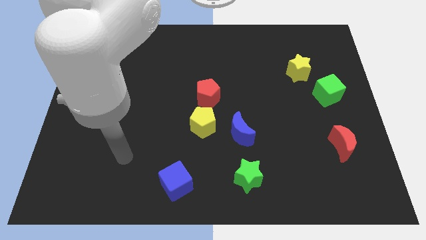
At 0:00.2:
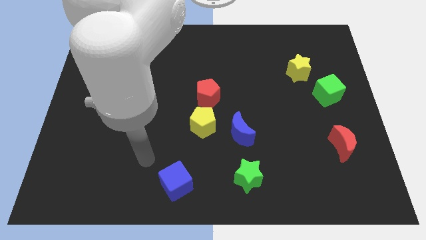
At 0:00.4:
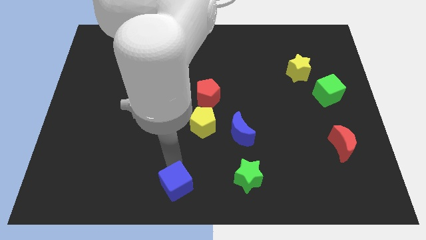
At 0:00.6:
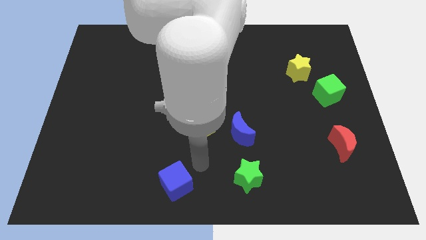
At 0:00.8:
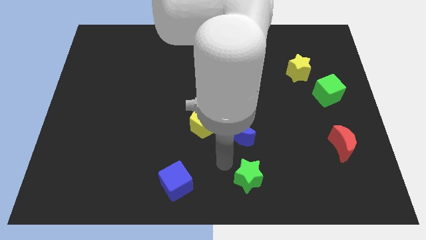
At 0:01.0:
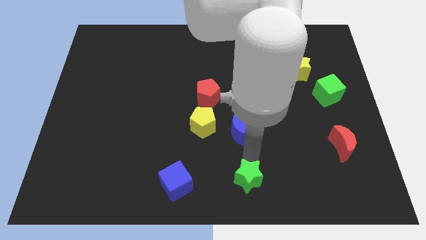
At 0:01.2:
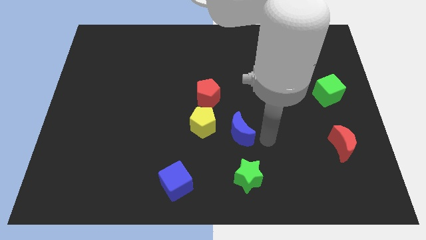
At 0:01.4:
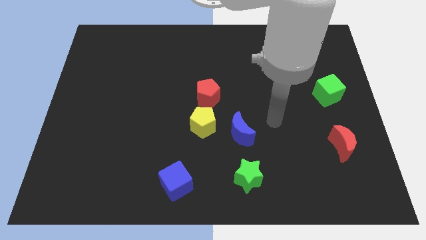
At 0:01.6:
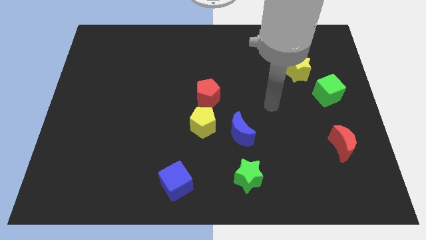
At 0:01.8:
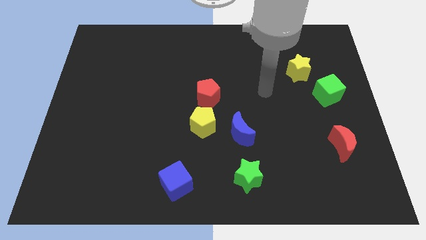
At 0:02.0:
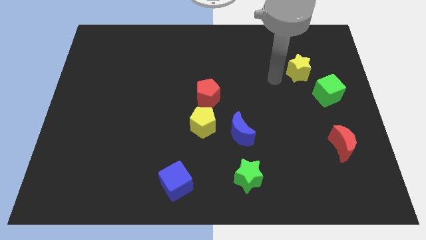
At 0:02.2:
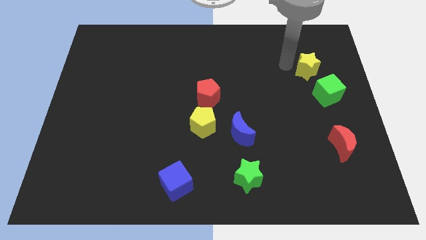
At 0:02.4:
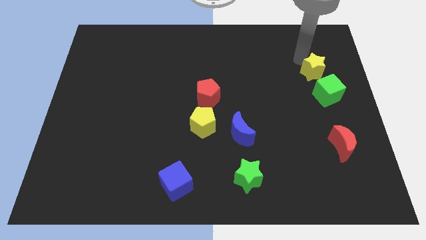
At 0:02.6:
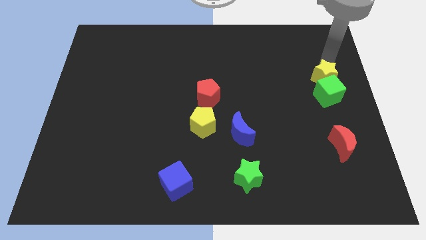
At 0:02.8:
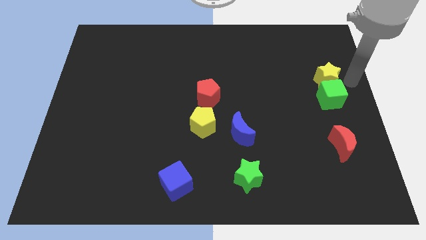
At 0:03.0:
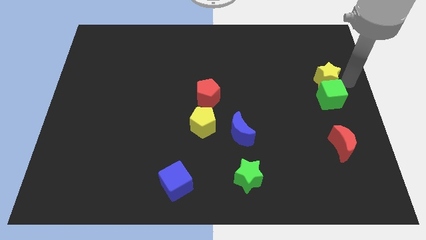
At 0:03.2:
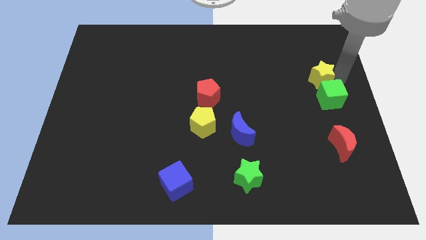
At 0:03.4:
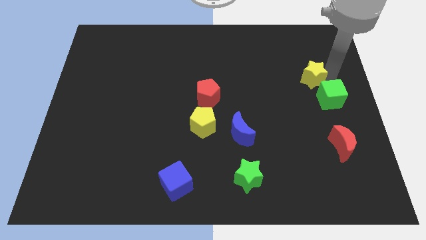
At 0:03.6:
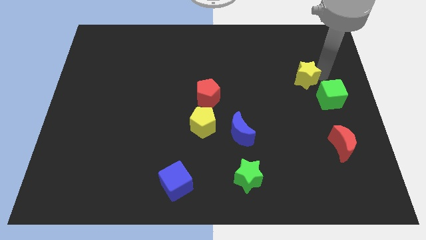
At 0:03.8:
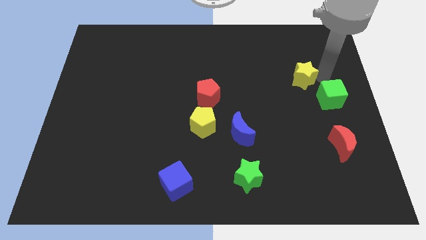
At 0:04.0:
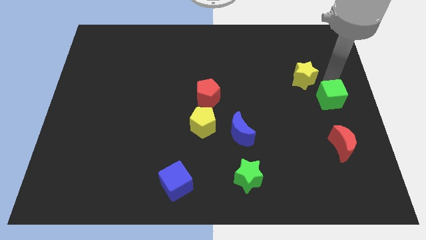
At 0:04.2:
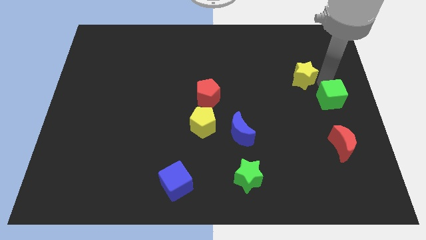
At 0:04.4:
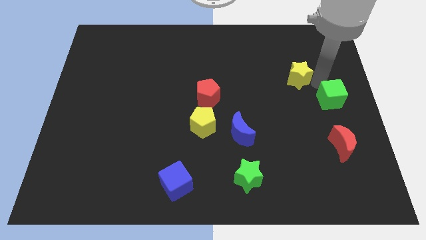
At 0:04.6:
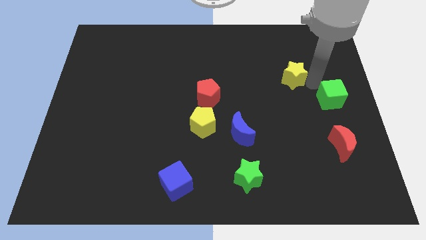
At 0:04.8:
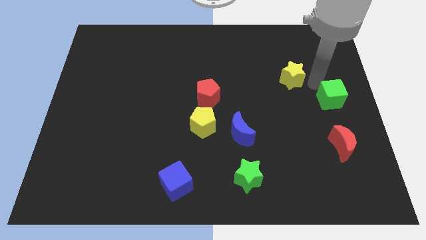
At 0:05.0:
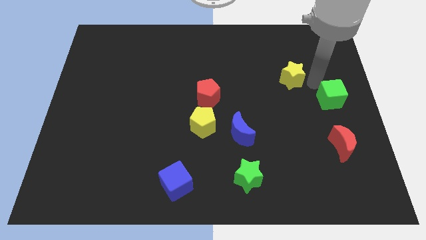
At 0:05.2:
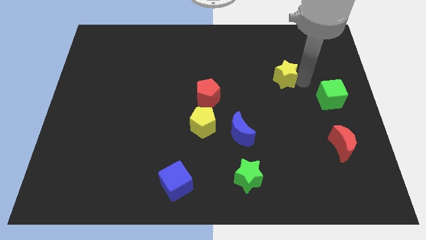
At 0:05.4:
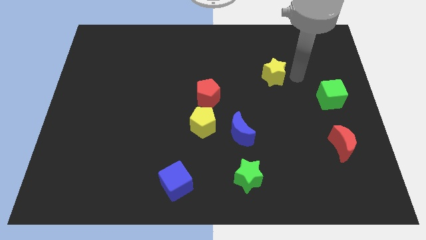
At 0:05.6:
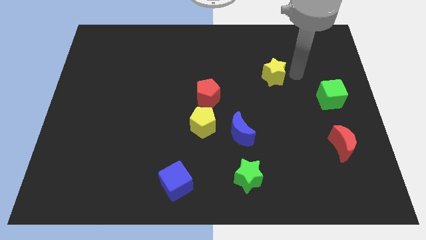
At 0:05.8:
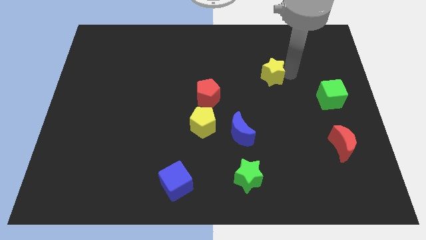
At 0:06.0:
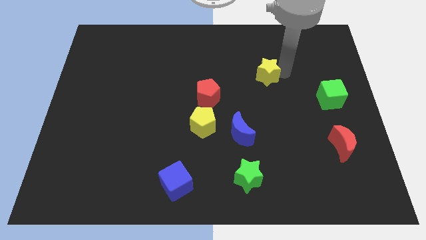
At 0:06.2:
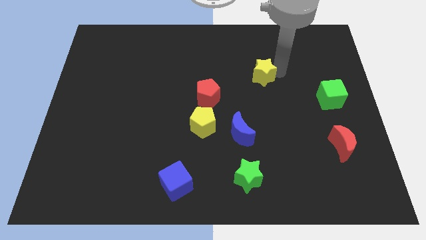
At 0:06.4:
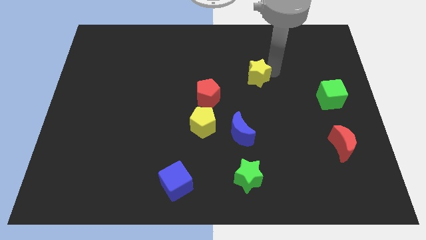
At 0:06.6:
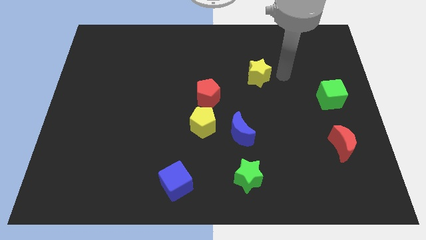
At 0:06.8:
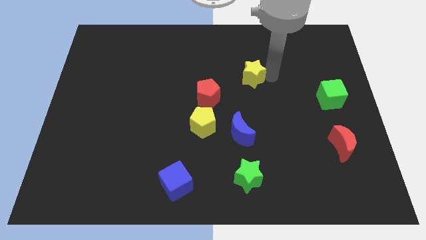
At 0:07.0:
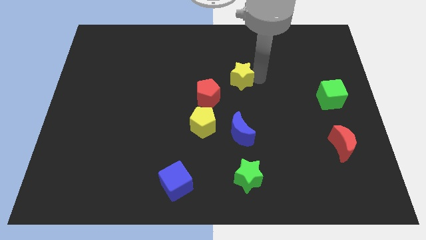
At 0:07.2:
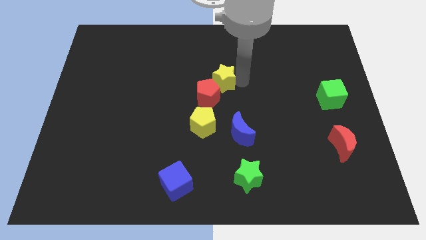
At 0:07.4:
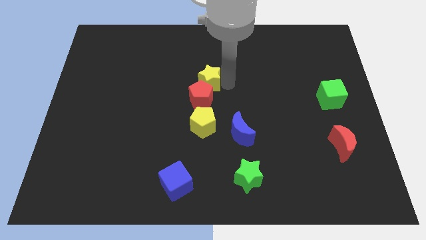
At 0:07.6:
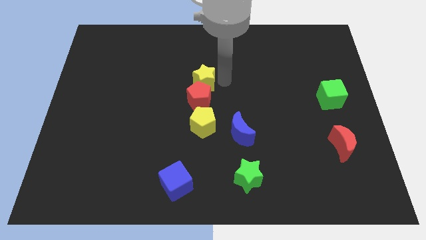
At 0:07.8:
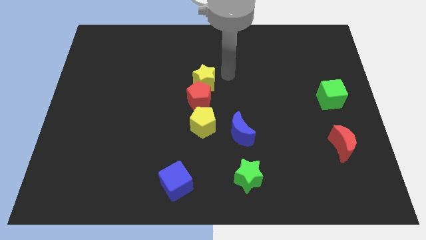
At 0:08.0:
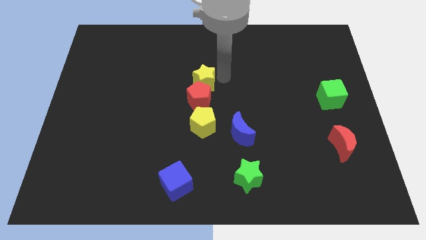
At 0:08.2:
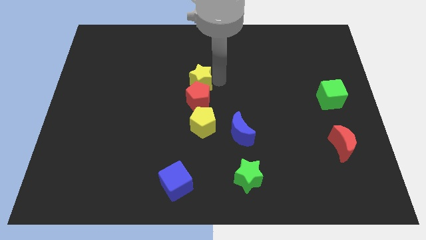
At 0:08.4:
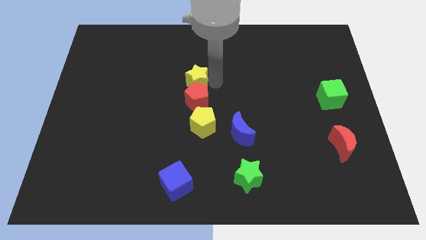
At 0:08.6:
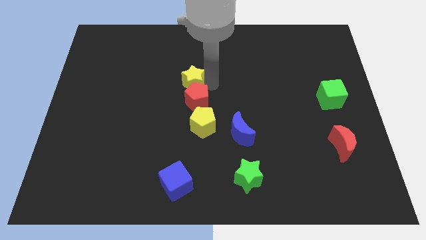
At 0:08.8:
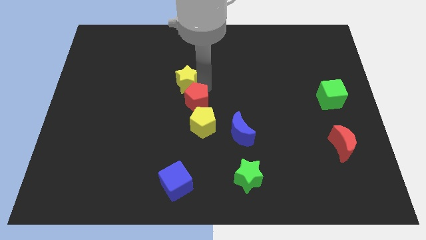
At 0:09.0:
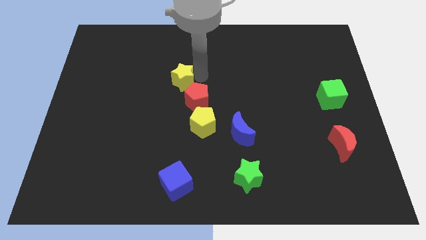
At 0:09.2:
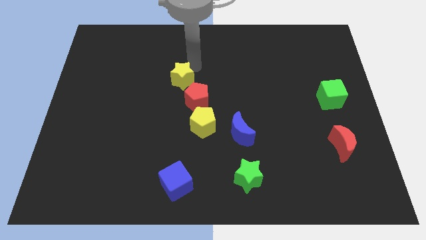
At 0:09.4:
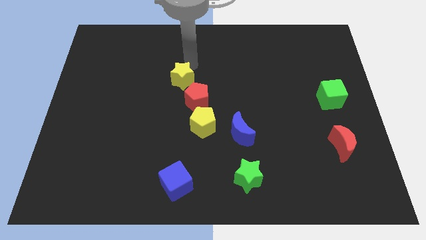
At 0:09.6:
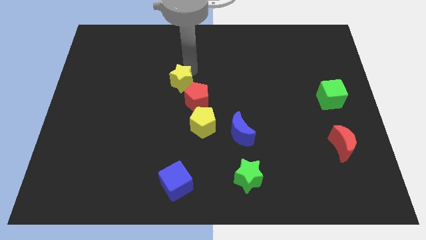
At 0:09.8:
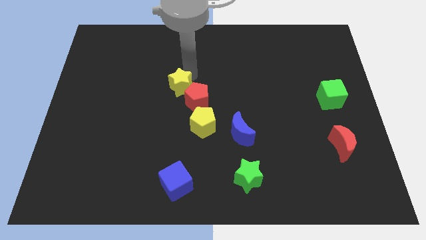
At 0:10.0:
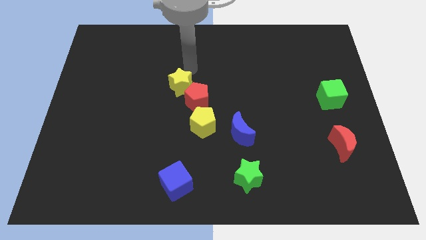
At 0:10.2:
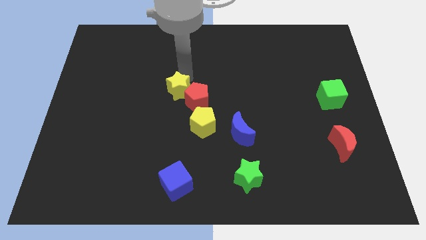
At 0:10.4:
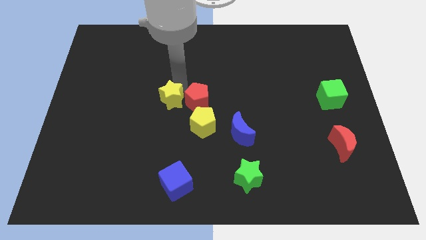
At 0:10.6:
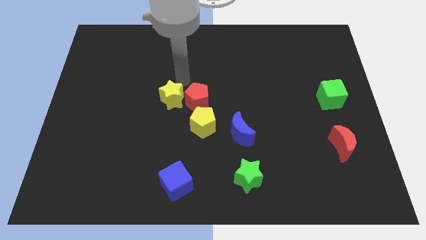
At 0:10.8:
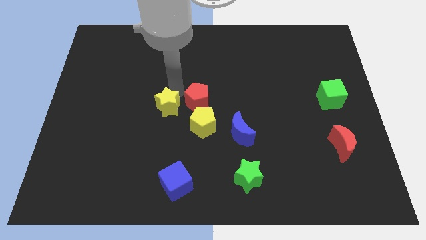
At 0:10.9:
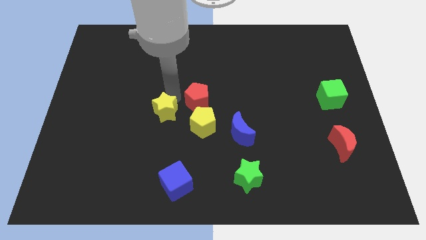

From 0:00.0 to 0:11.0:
push the yellow star just left of the yellow pentagon

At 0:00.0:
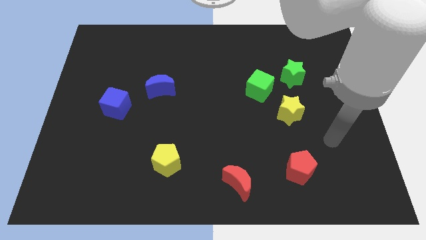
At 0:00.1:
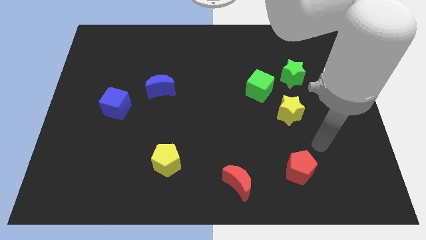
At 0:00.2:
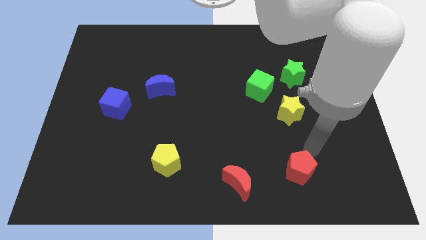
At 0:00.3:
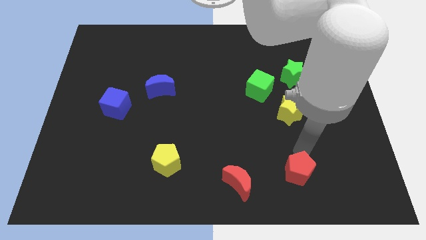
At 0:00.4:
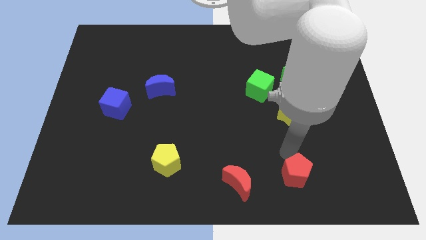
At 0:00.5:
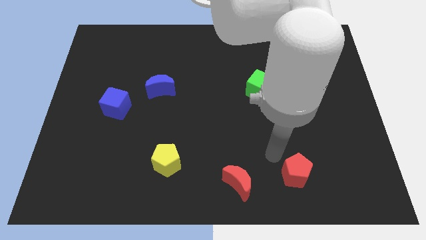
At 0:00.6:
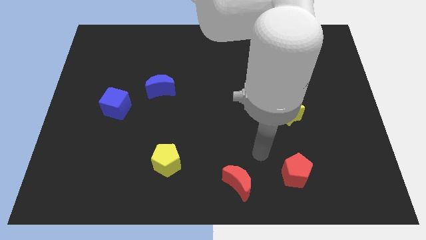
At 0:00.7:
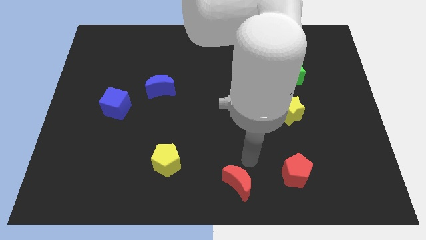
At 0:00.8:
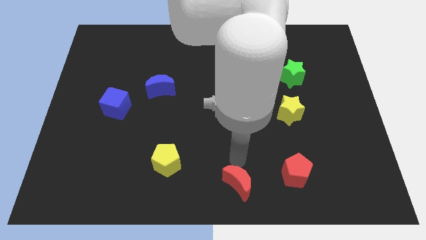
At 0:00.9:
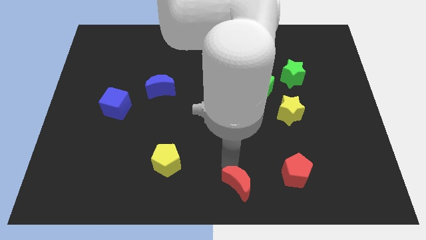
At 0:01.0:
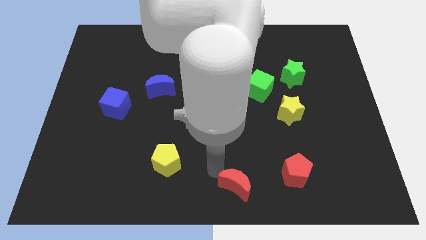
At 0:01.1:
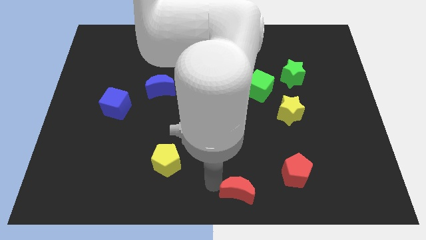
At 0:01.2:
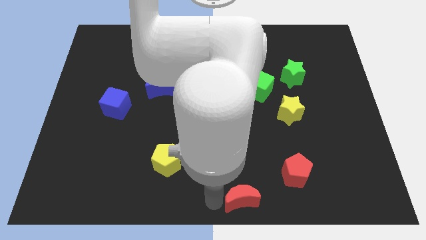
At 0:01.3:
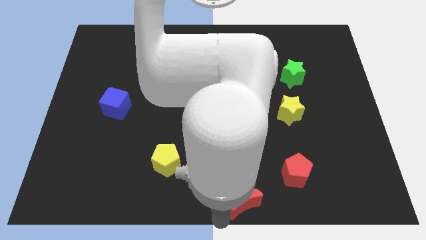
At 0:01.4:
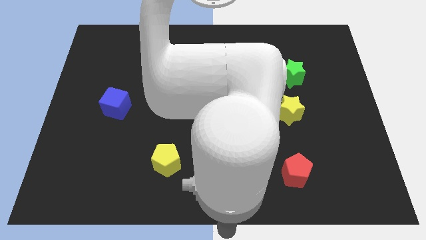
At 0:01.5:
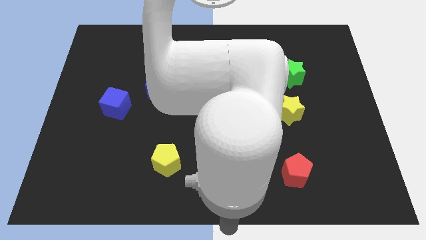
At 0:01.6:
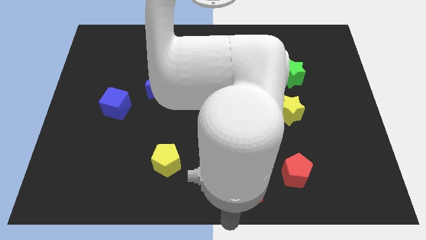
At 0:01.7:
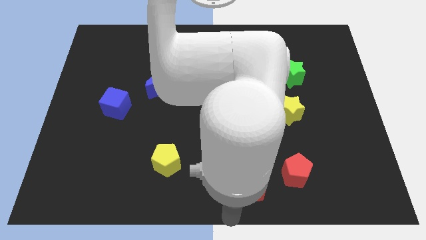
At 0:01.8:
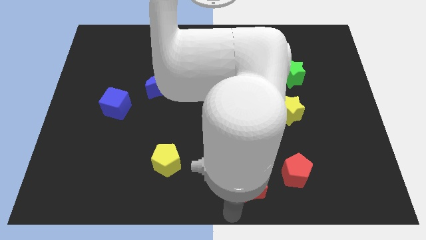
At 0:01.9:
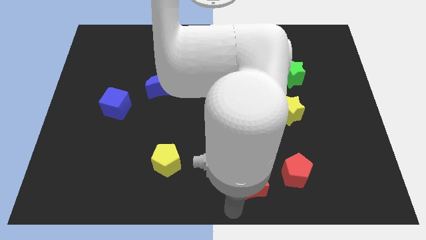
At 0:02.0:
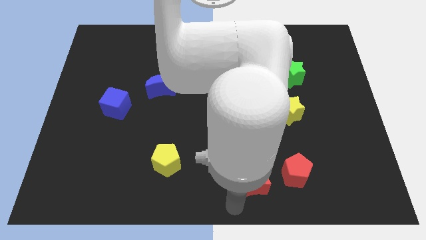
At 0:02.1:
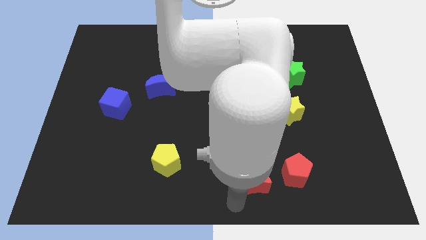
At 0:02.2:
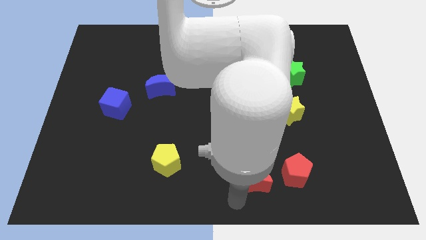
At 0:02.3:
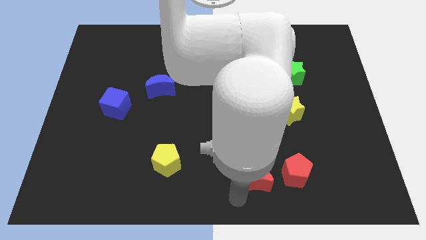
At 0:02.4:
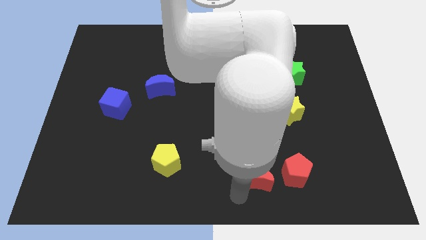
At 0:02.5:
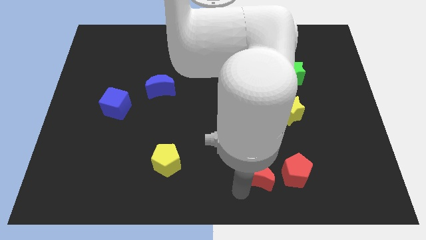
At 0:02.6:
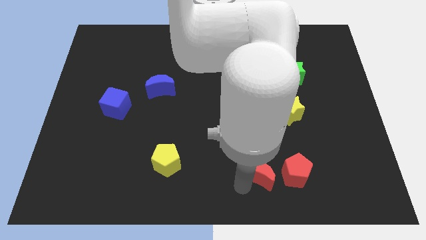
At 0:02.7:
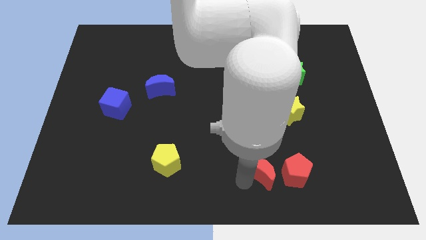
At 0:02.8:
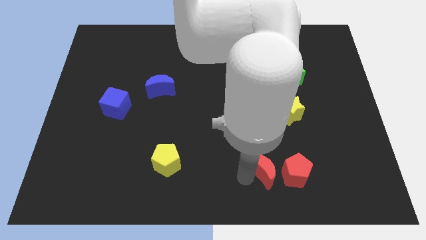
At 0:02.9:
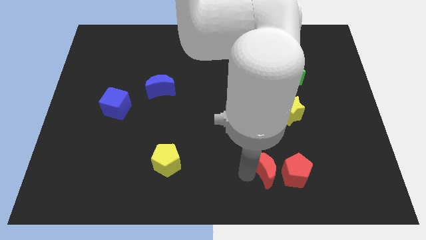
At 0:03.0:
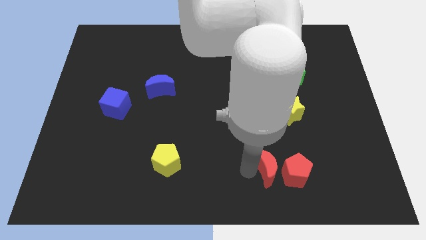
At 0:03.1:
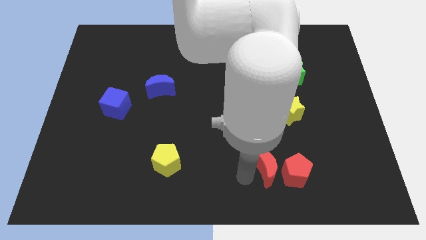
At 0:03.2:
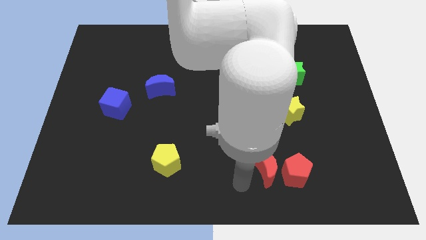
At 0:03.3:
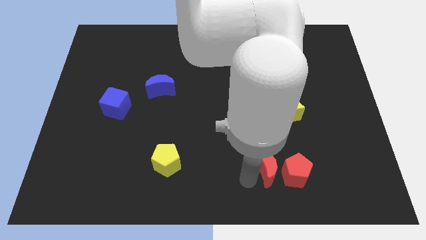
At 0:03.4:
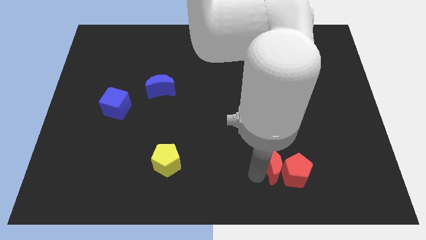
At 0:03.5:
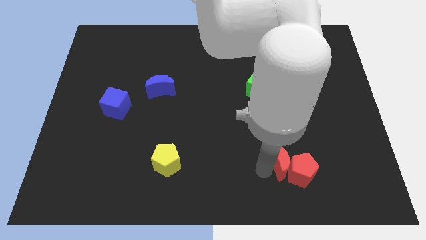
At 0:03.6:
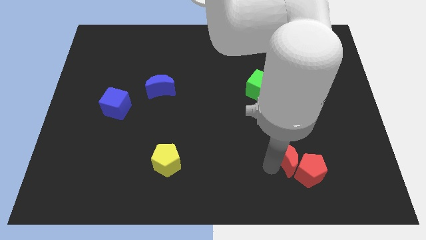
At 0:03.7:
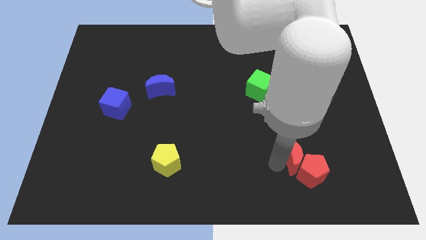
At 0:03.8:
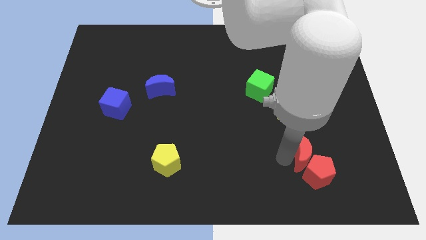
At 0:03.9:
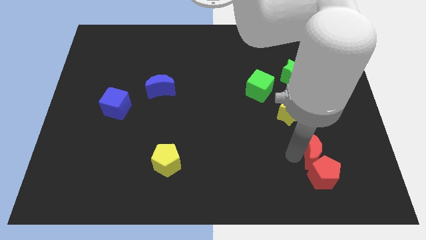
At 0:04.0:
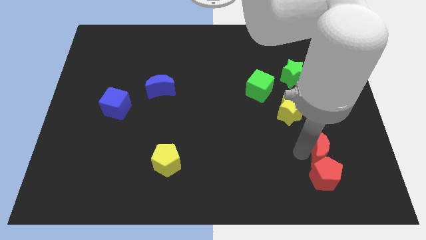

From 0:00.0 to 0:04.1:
slide the red moon diagonally up and to the right of the red pentagon
